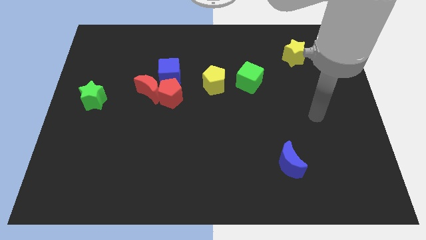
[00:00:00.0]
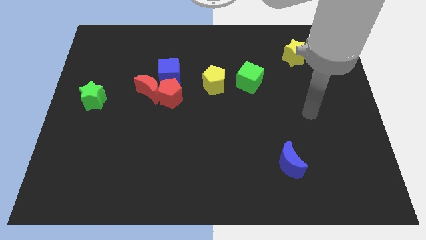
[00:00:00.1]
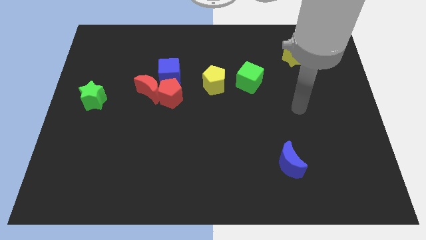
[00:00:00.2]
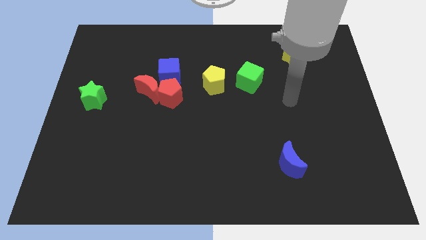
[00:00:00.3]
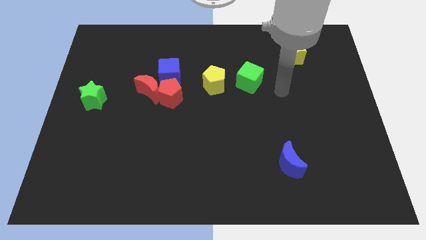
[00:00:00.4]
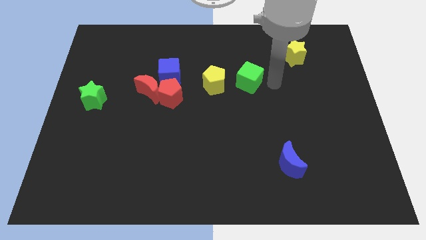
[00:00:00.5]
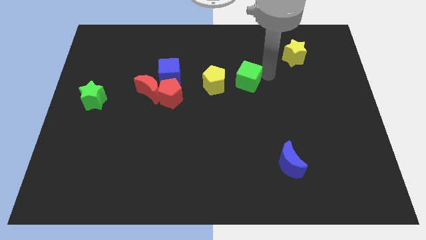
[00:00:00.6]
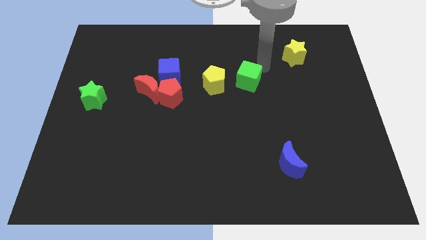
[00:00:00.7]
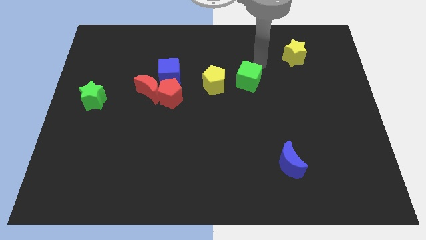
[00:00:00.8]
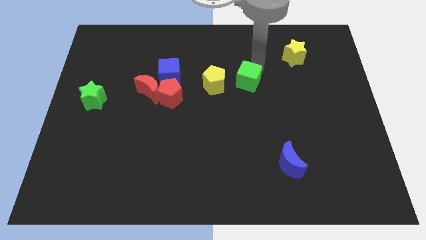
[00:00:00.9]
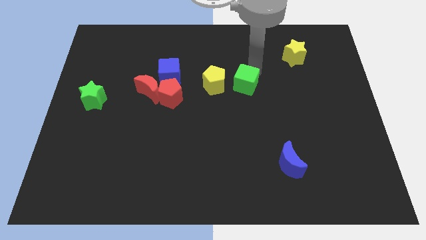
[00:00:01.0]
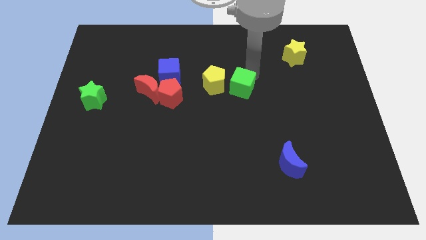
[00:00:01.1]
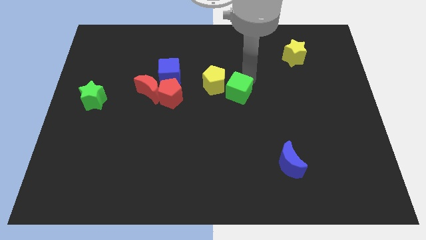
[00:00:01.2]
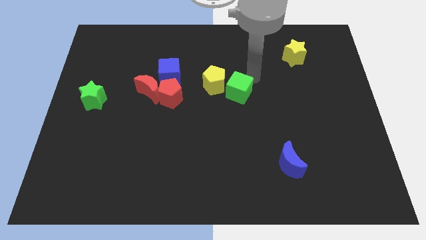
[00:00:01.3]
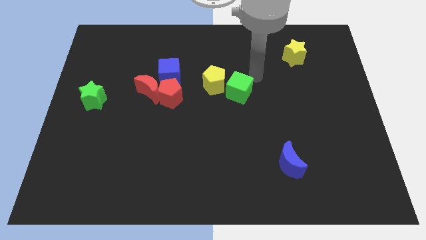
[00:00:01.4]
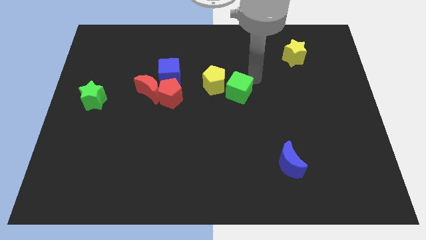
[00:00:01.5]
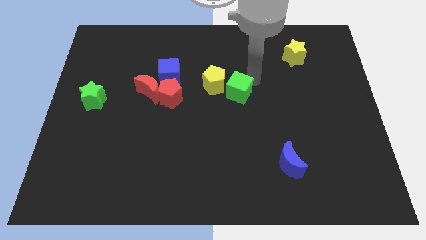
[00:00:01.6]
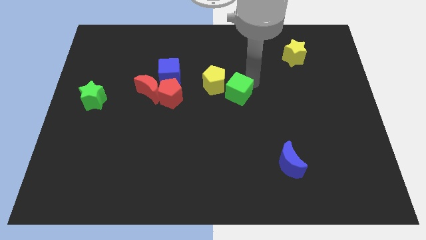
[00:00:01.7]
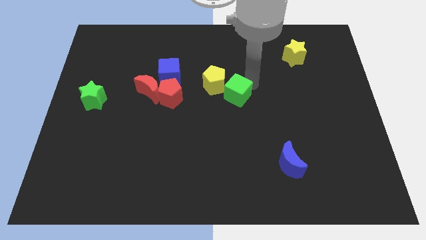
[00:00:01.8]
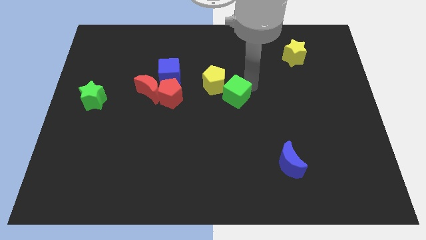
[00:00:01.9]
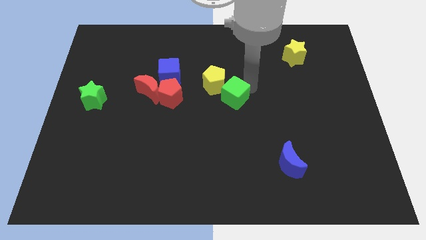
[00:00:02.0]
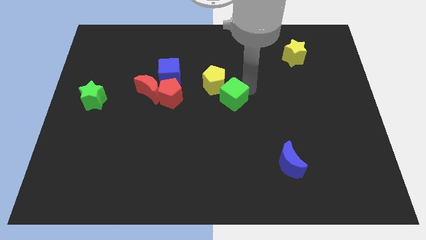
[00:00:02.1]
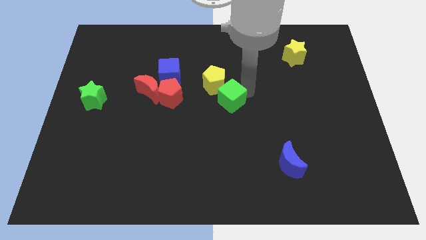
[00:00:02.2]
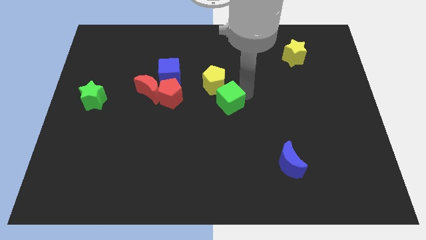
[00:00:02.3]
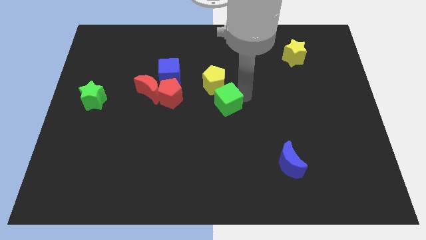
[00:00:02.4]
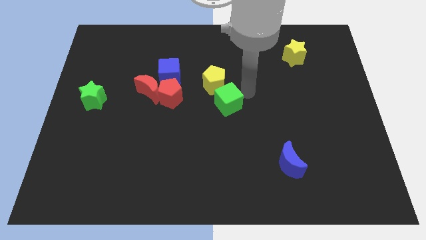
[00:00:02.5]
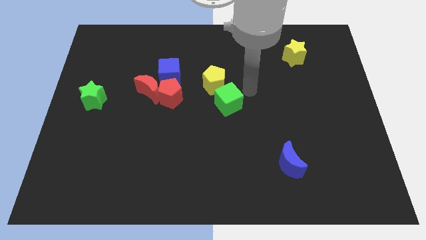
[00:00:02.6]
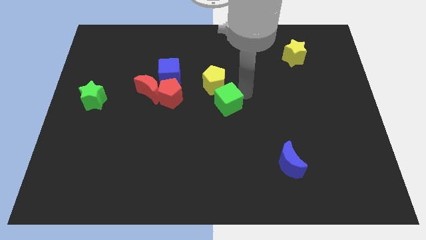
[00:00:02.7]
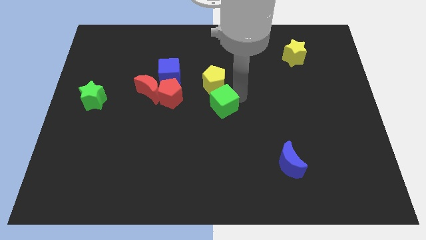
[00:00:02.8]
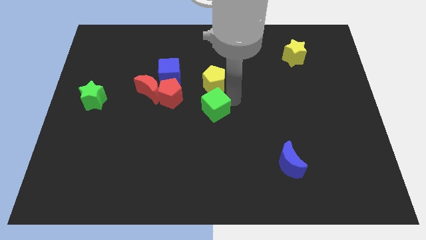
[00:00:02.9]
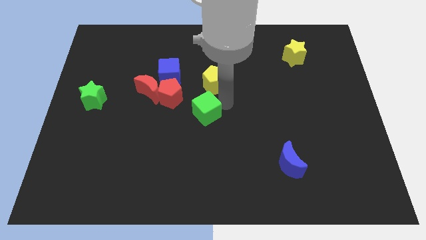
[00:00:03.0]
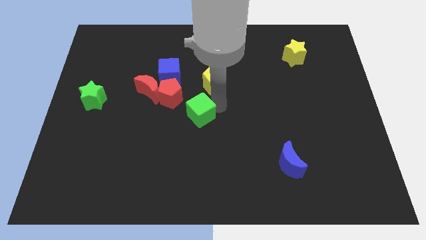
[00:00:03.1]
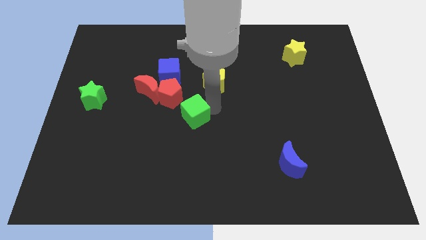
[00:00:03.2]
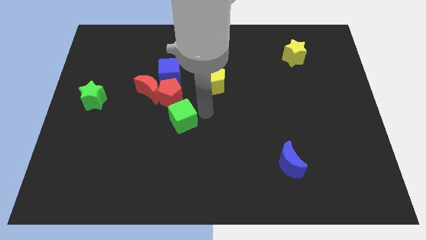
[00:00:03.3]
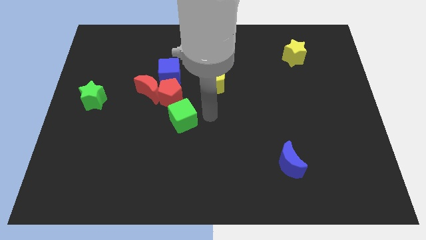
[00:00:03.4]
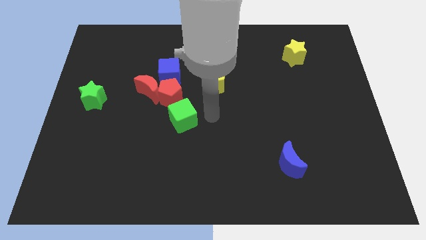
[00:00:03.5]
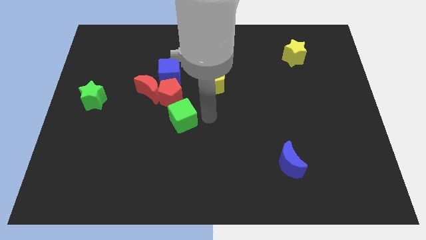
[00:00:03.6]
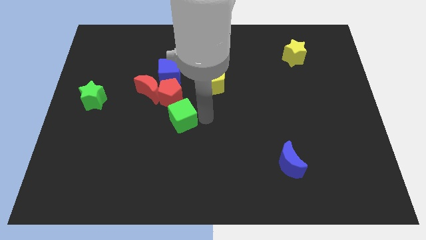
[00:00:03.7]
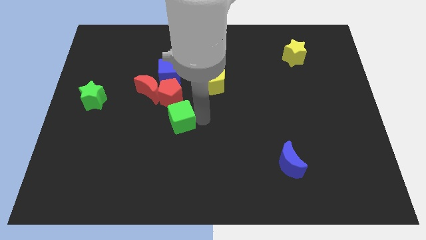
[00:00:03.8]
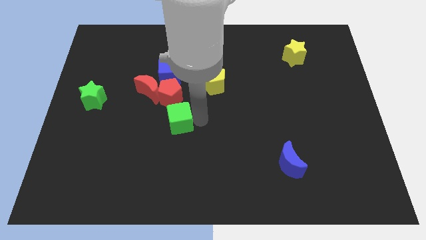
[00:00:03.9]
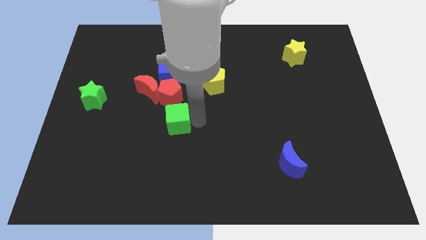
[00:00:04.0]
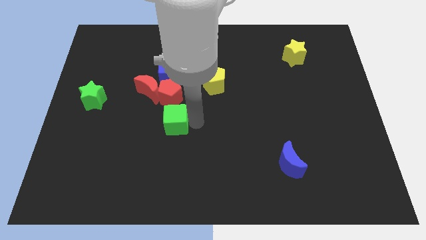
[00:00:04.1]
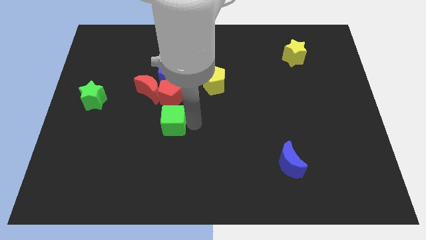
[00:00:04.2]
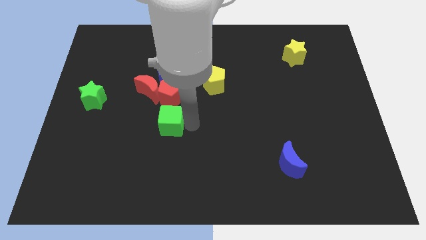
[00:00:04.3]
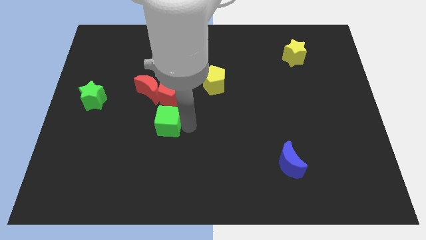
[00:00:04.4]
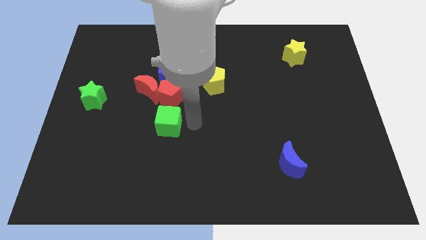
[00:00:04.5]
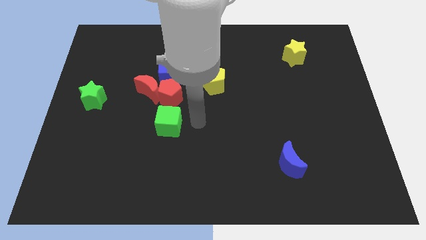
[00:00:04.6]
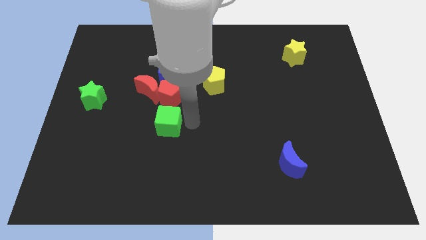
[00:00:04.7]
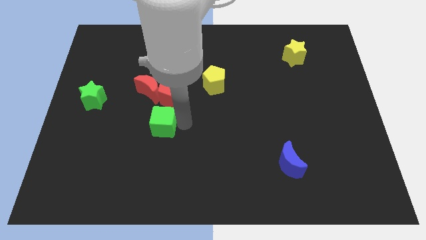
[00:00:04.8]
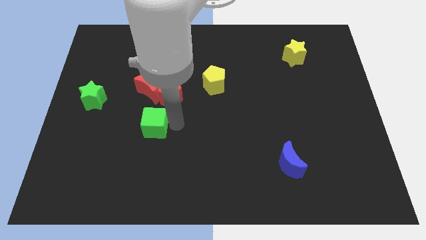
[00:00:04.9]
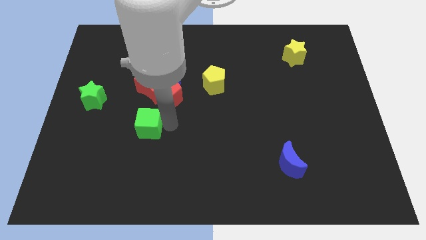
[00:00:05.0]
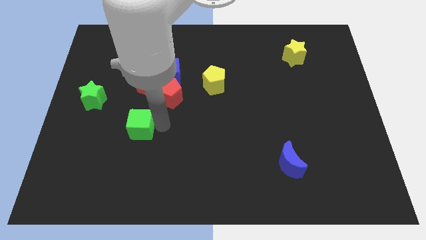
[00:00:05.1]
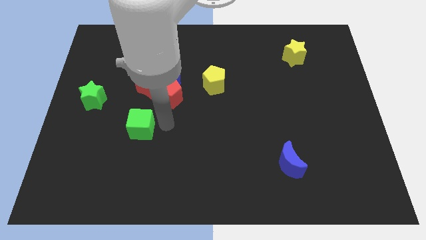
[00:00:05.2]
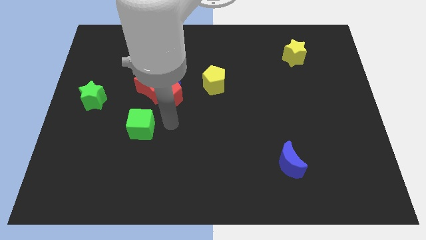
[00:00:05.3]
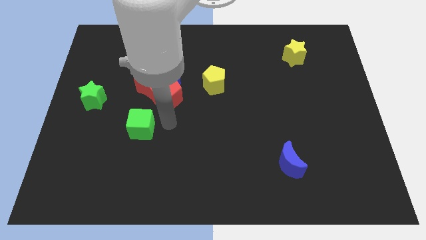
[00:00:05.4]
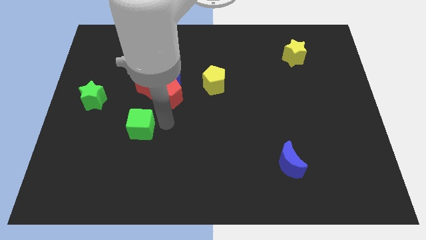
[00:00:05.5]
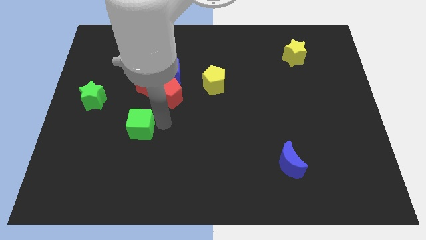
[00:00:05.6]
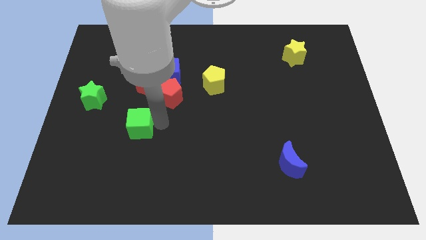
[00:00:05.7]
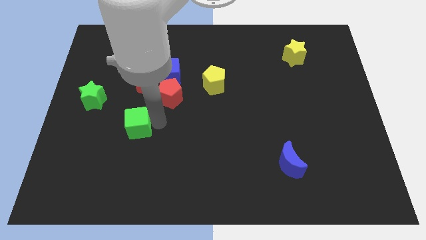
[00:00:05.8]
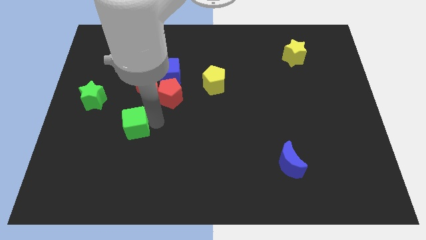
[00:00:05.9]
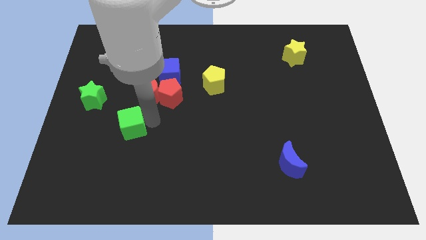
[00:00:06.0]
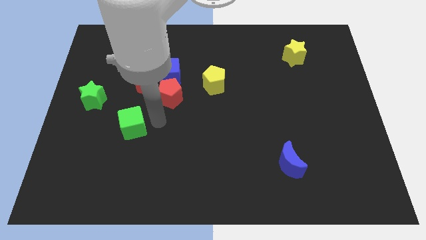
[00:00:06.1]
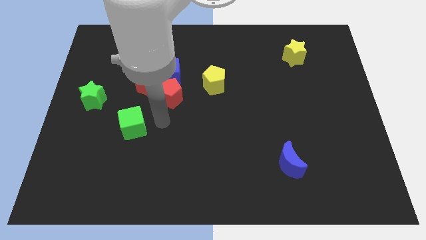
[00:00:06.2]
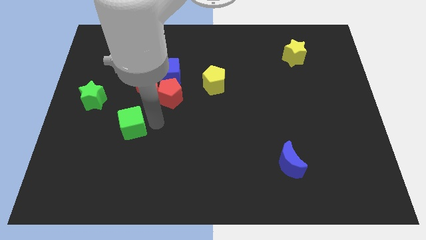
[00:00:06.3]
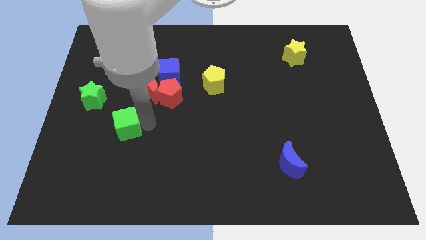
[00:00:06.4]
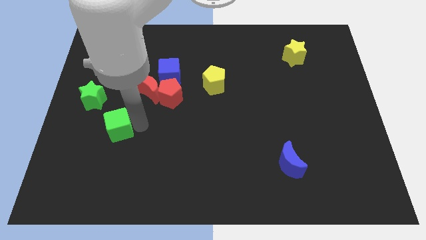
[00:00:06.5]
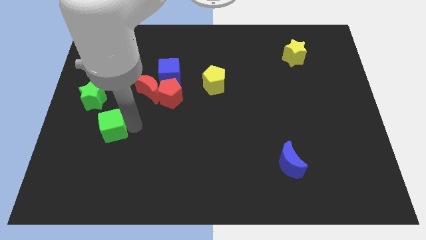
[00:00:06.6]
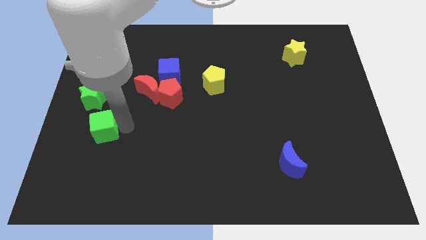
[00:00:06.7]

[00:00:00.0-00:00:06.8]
move the green cube to the bottom of the green star

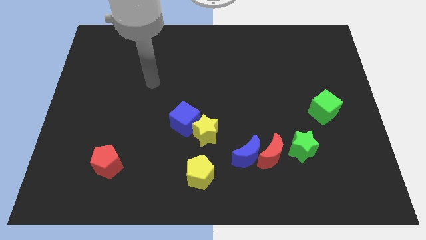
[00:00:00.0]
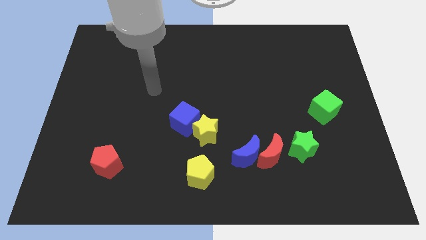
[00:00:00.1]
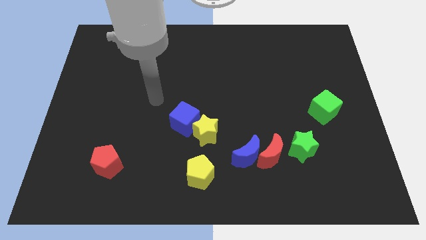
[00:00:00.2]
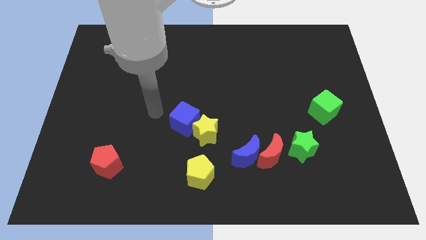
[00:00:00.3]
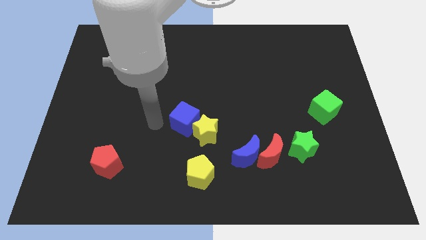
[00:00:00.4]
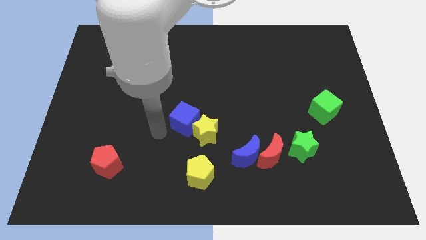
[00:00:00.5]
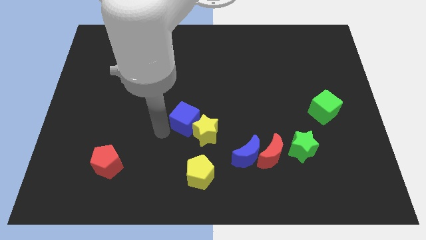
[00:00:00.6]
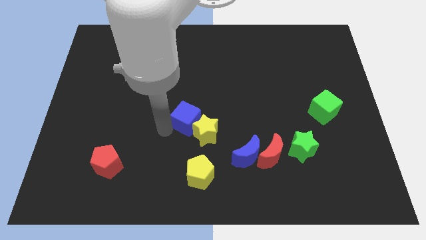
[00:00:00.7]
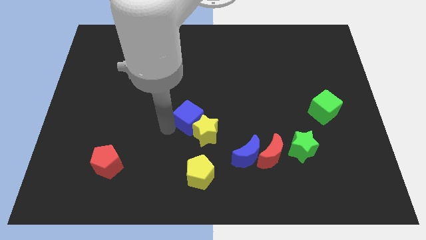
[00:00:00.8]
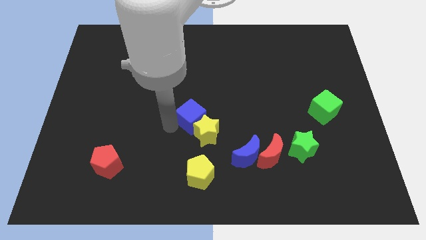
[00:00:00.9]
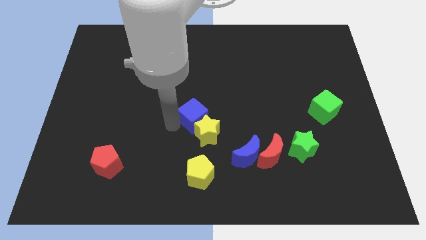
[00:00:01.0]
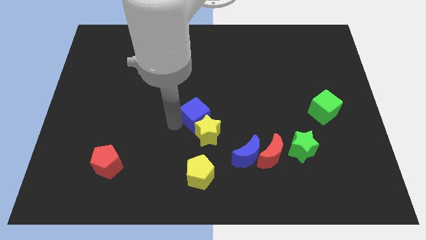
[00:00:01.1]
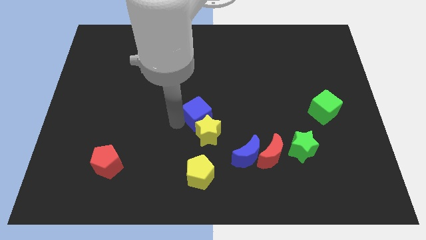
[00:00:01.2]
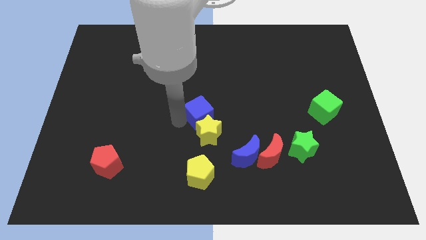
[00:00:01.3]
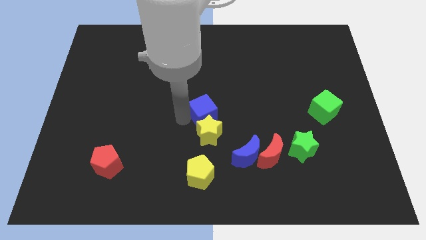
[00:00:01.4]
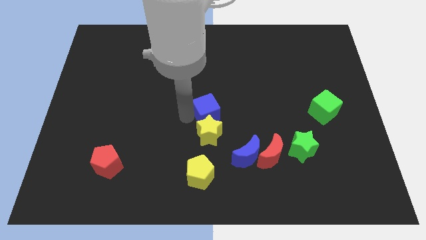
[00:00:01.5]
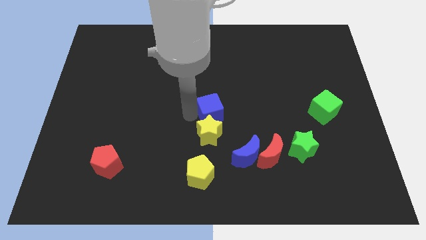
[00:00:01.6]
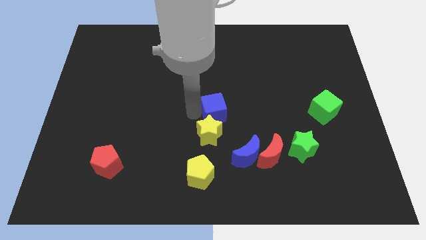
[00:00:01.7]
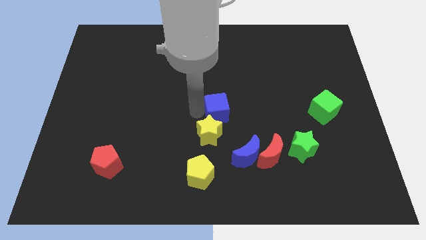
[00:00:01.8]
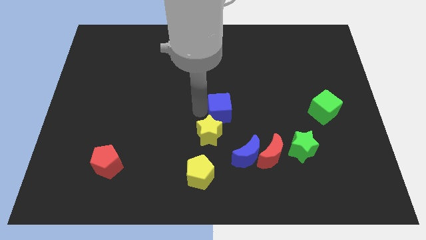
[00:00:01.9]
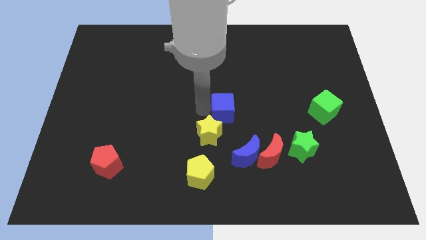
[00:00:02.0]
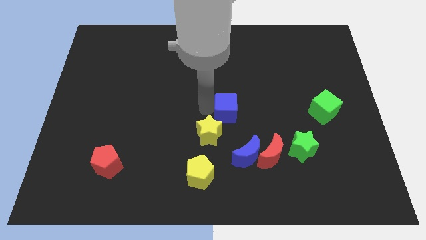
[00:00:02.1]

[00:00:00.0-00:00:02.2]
push the blue cube to the top side of the blue moon
